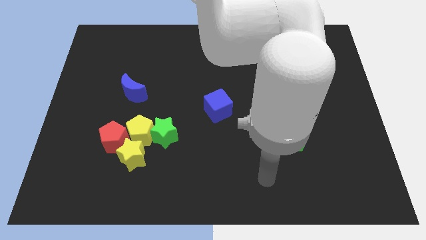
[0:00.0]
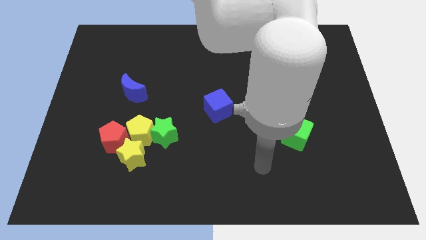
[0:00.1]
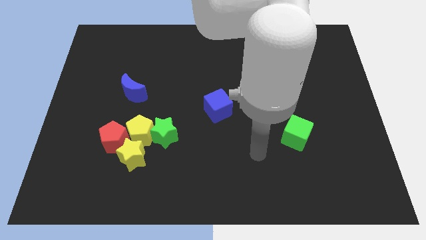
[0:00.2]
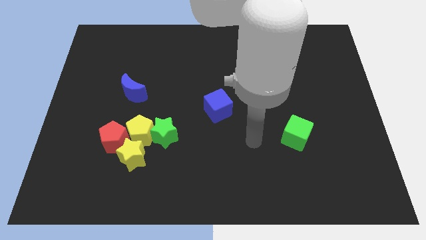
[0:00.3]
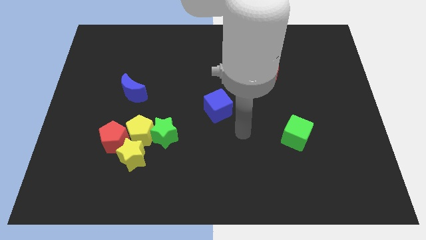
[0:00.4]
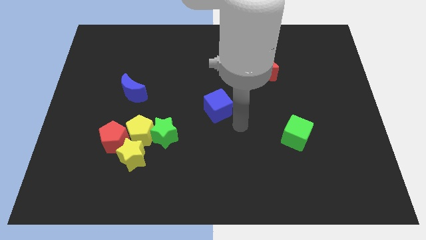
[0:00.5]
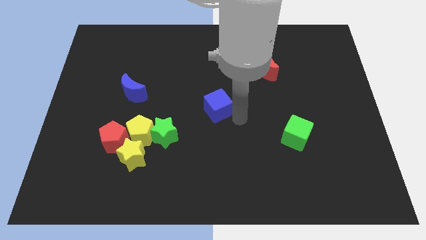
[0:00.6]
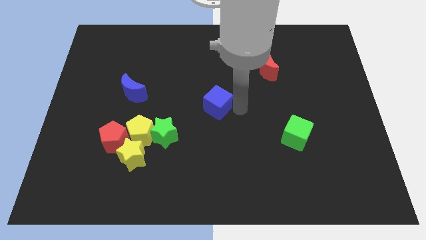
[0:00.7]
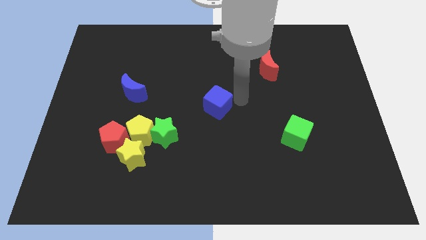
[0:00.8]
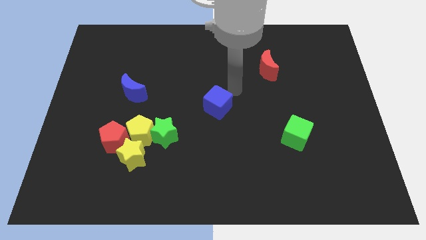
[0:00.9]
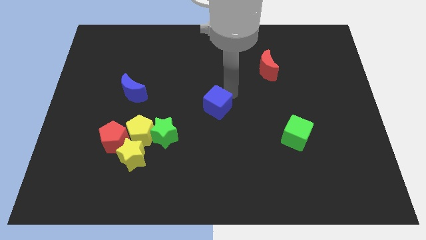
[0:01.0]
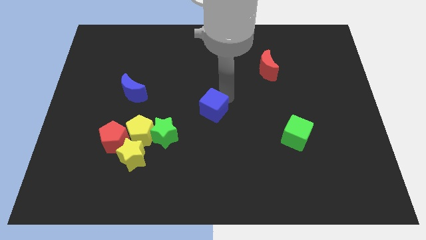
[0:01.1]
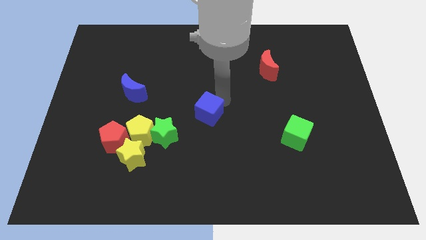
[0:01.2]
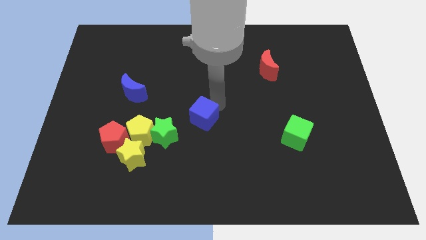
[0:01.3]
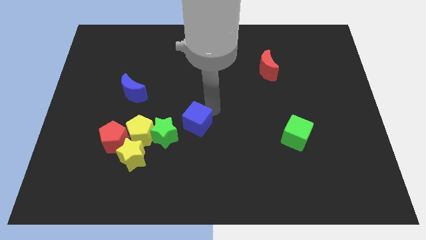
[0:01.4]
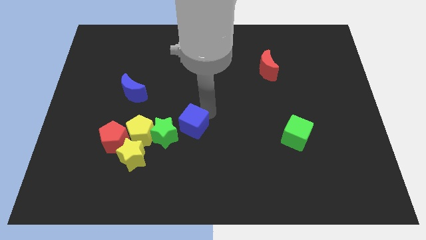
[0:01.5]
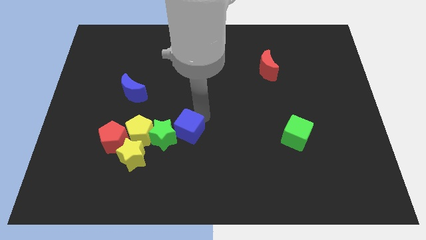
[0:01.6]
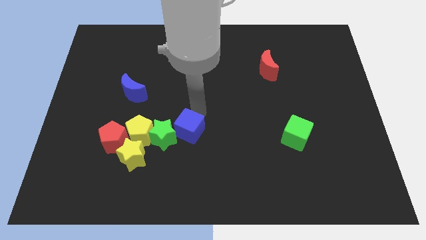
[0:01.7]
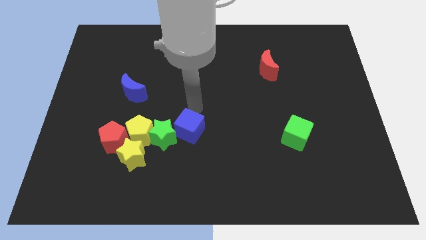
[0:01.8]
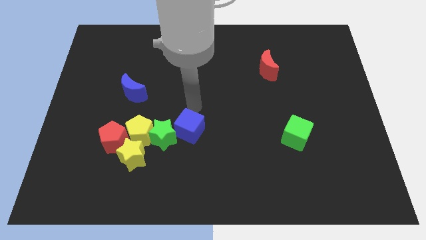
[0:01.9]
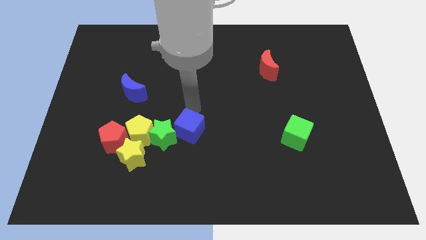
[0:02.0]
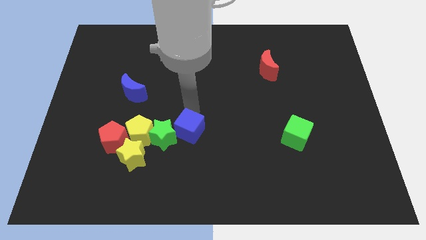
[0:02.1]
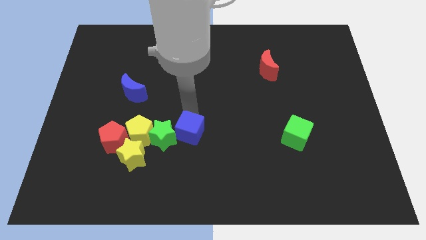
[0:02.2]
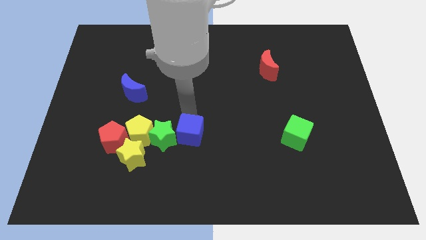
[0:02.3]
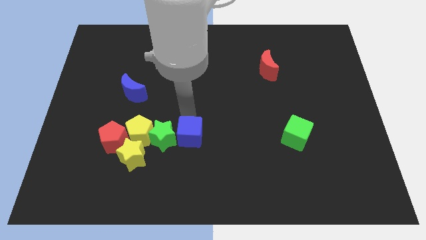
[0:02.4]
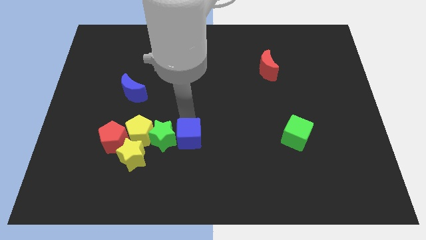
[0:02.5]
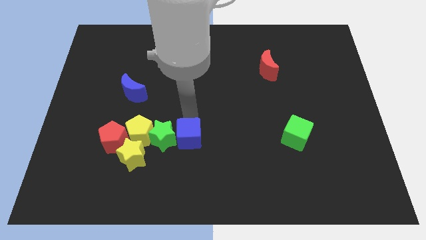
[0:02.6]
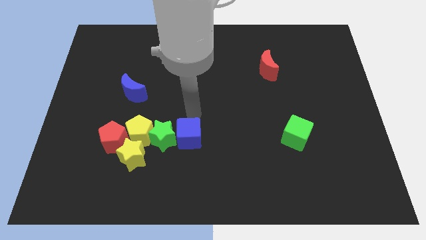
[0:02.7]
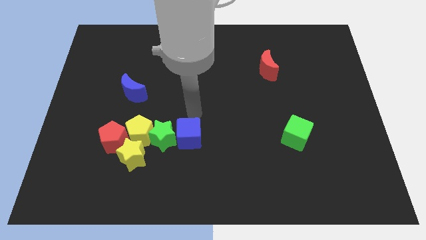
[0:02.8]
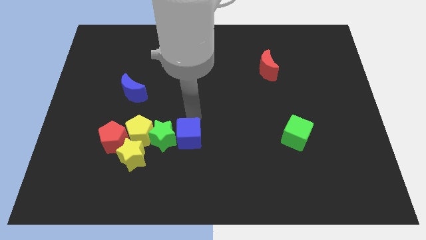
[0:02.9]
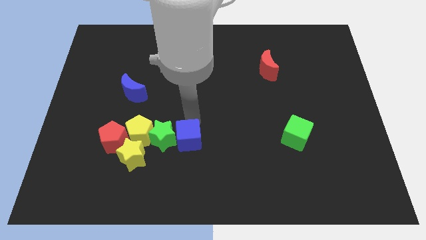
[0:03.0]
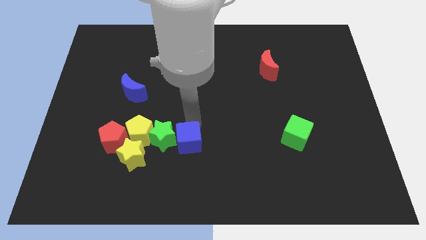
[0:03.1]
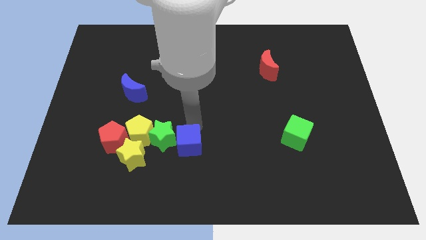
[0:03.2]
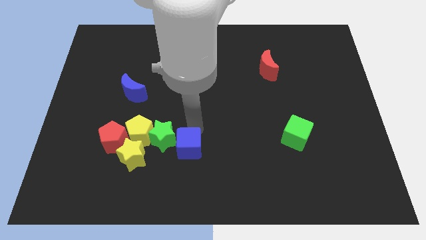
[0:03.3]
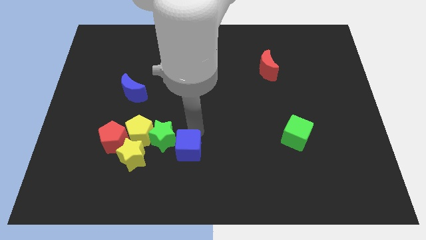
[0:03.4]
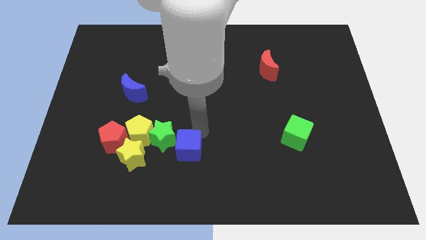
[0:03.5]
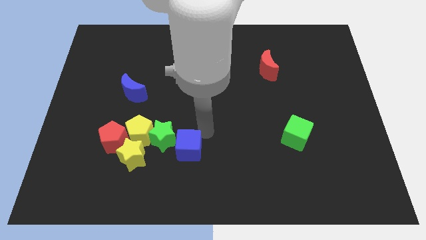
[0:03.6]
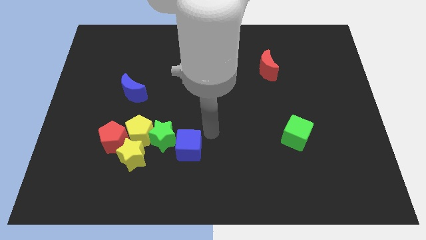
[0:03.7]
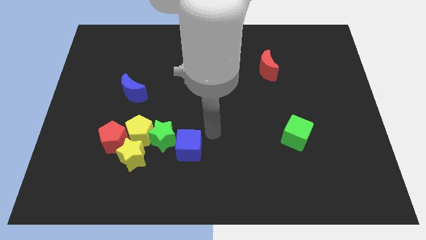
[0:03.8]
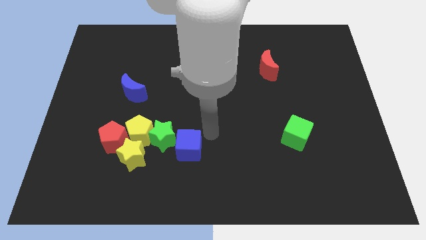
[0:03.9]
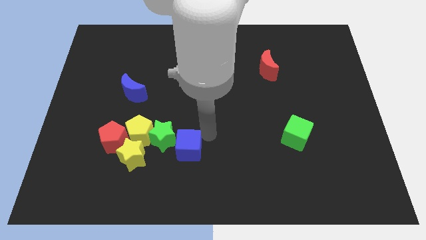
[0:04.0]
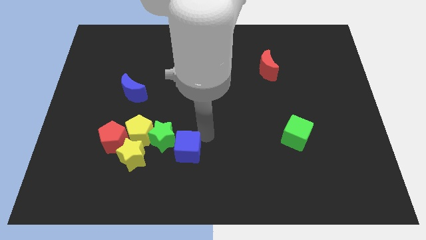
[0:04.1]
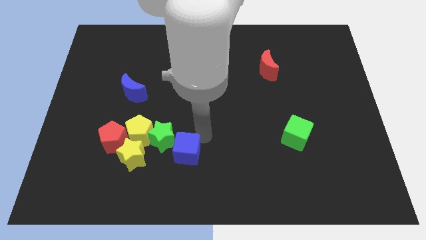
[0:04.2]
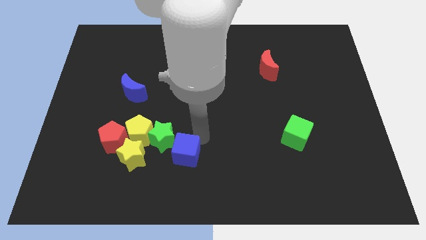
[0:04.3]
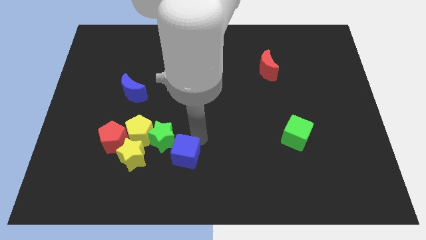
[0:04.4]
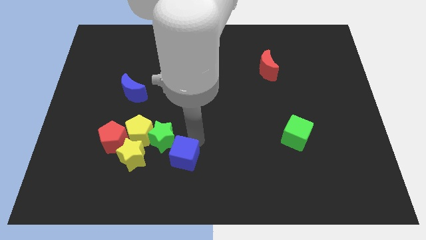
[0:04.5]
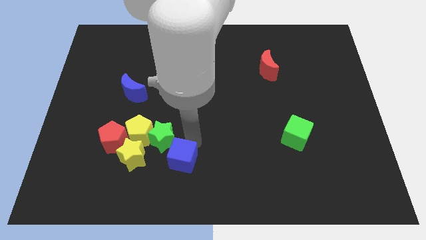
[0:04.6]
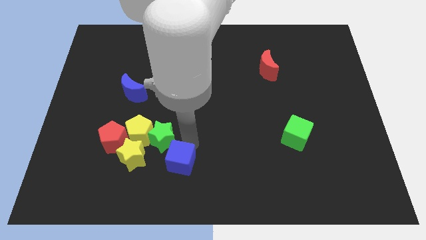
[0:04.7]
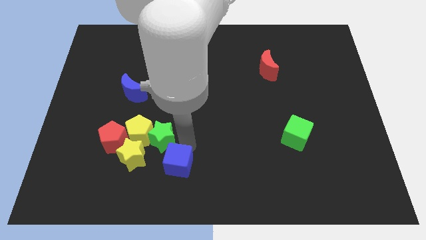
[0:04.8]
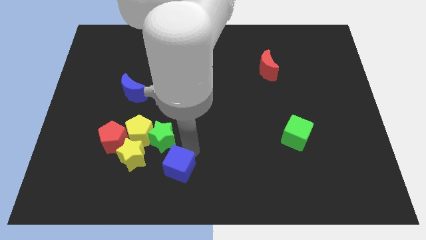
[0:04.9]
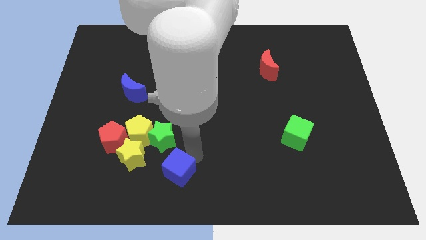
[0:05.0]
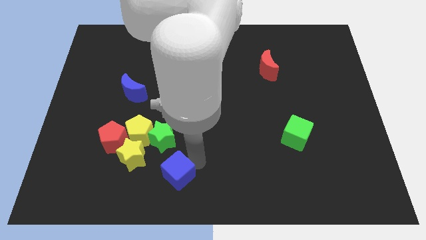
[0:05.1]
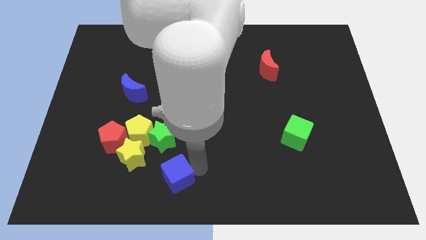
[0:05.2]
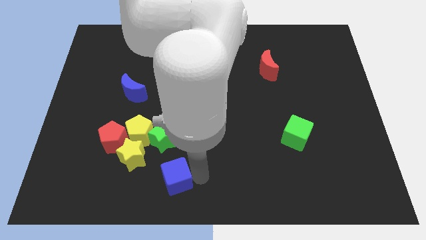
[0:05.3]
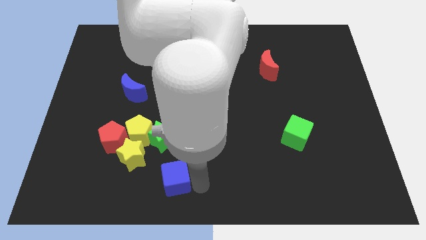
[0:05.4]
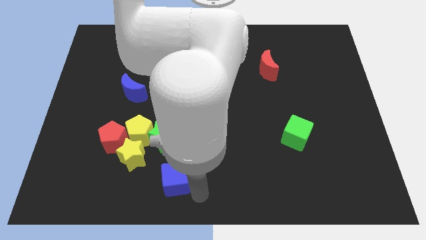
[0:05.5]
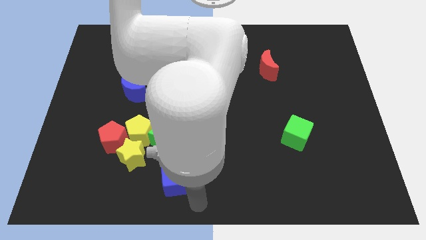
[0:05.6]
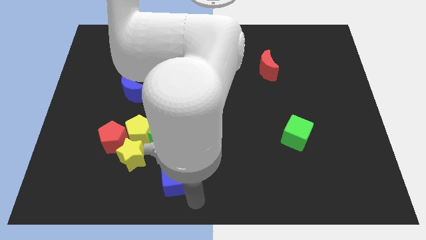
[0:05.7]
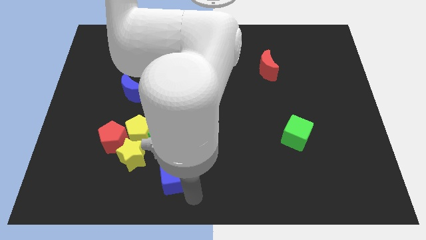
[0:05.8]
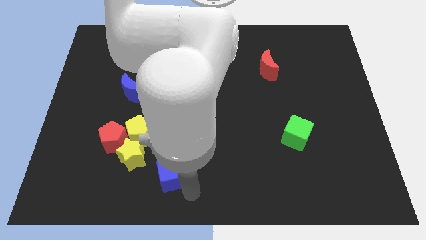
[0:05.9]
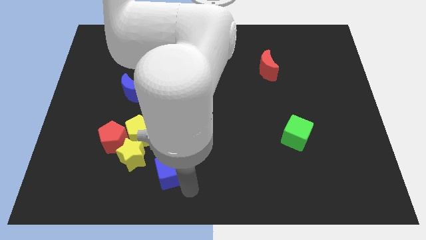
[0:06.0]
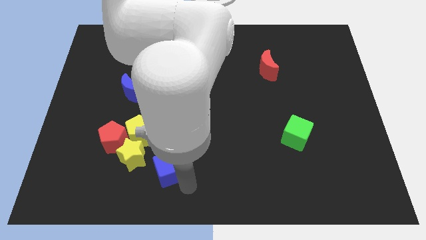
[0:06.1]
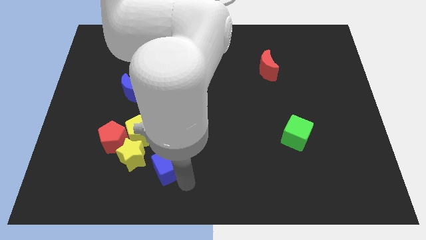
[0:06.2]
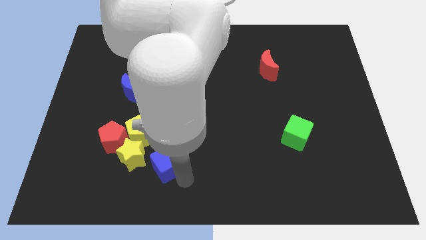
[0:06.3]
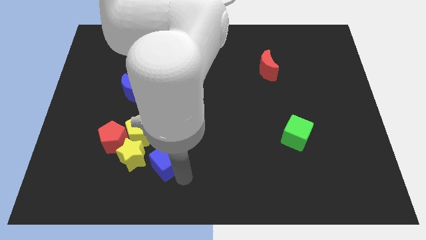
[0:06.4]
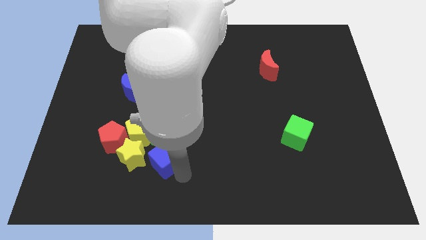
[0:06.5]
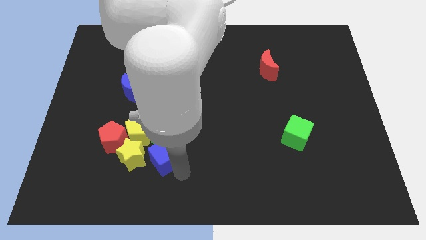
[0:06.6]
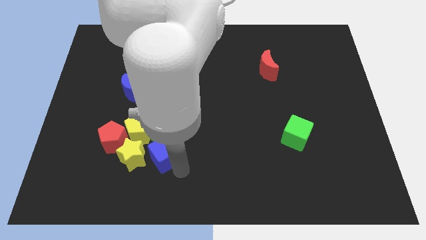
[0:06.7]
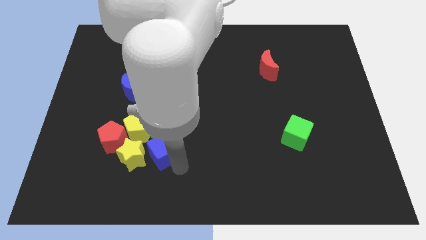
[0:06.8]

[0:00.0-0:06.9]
put the blue cube next to the yellow star
